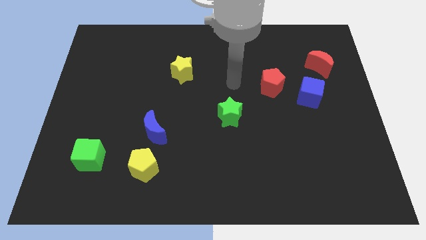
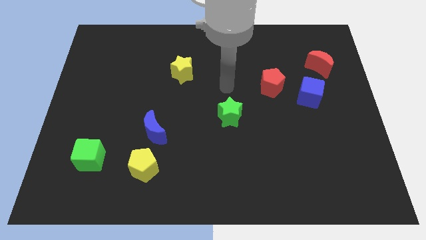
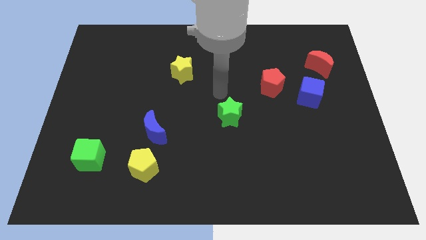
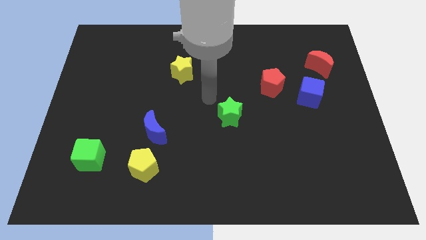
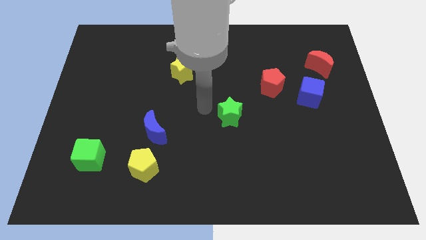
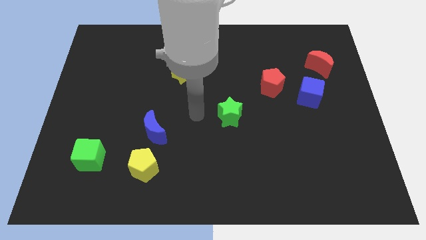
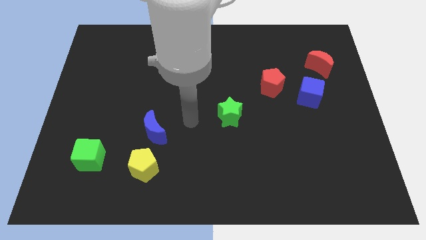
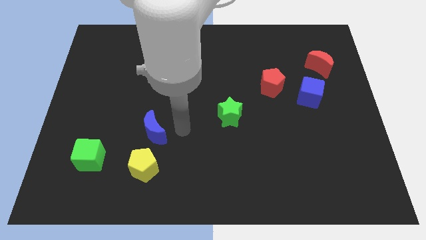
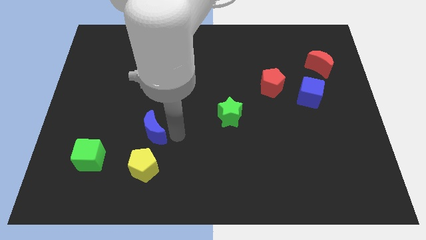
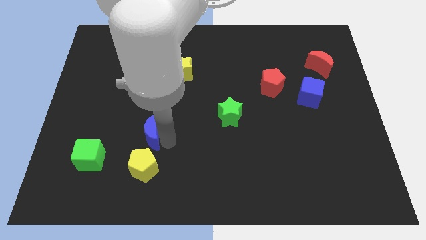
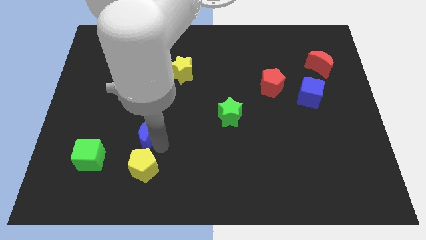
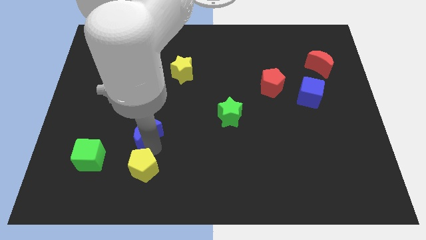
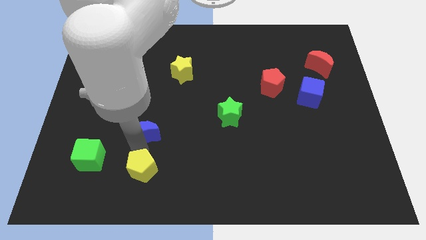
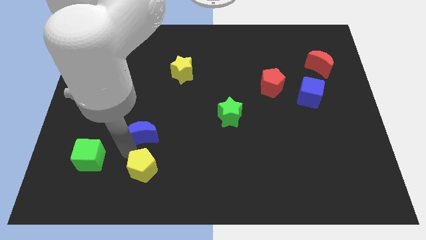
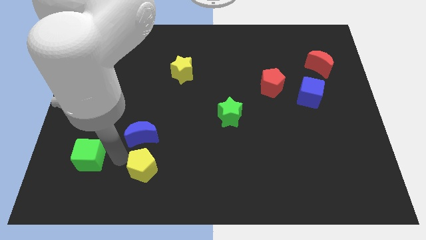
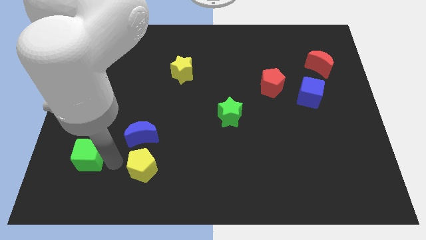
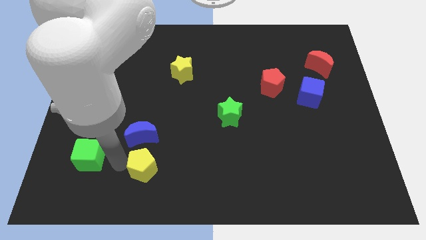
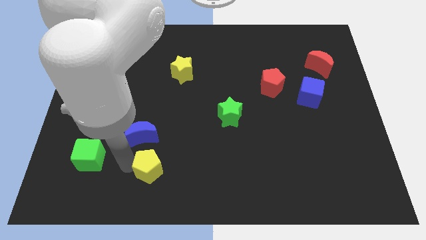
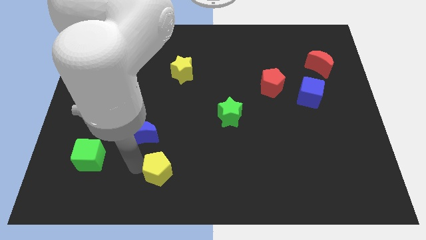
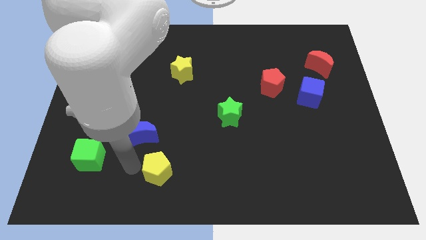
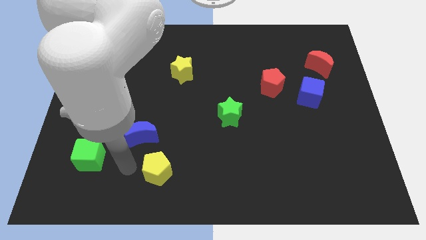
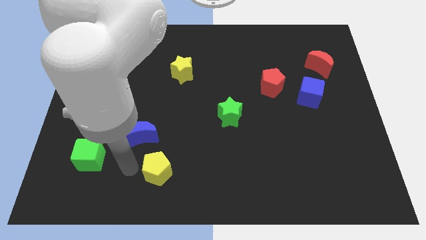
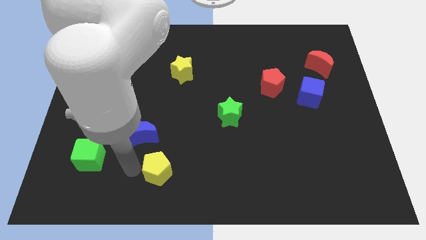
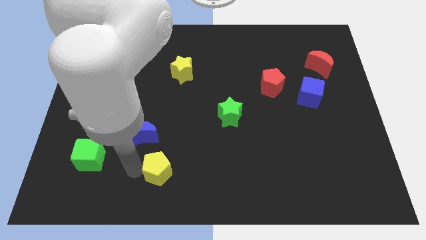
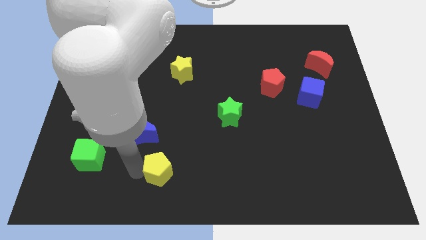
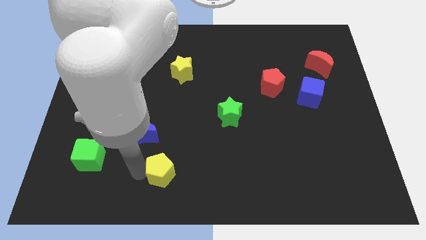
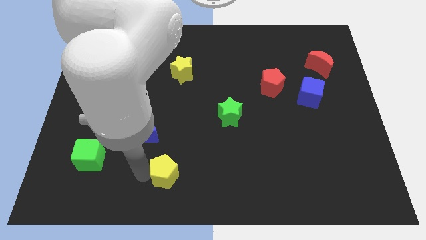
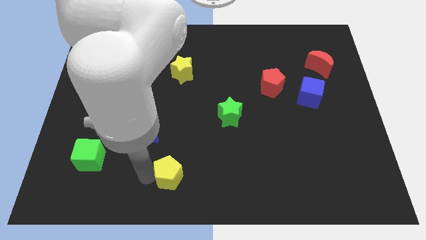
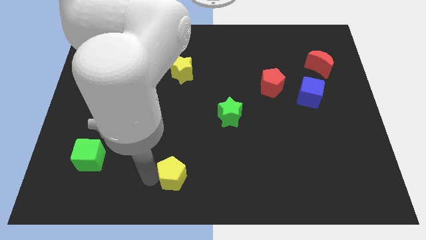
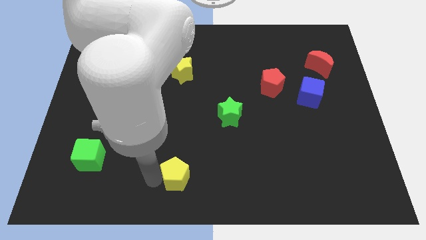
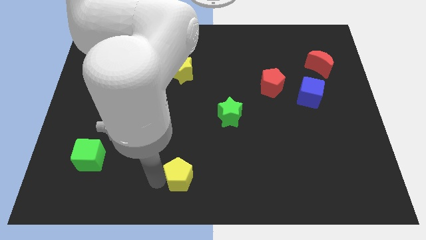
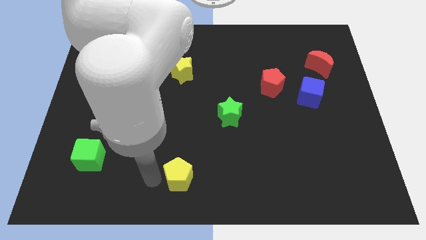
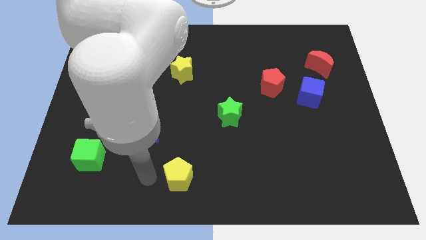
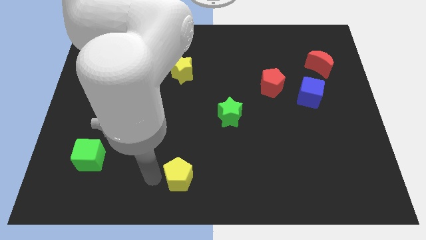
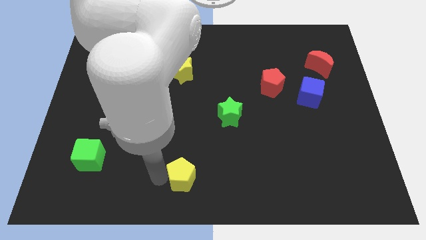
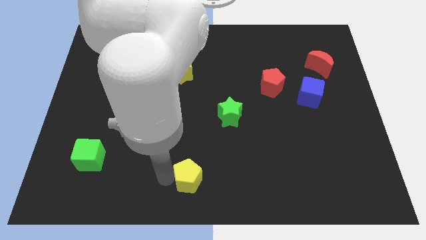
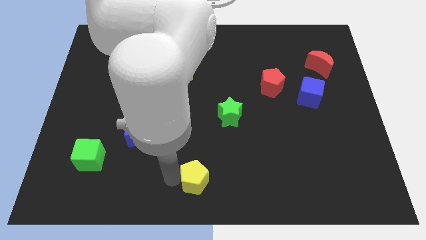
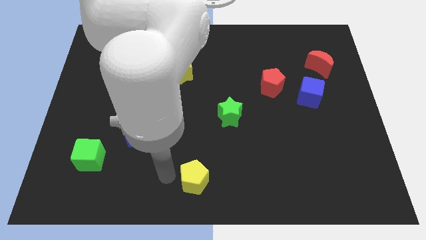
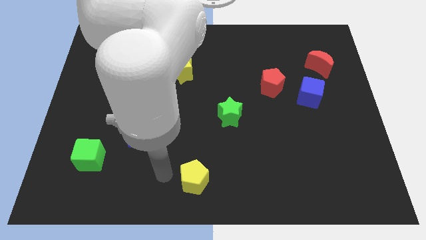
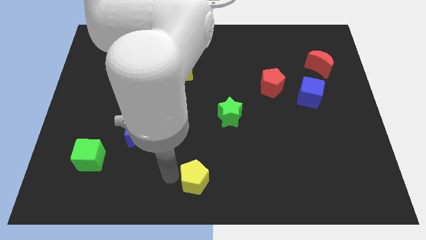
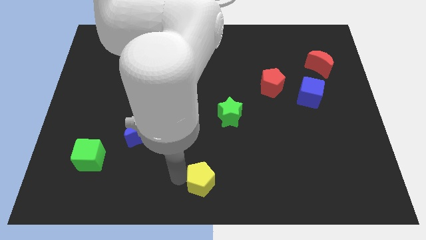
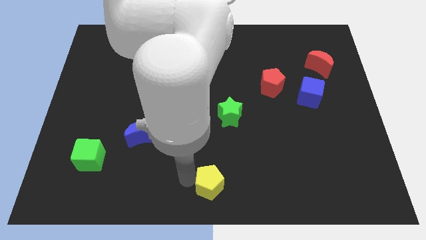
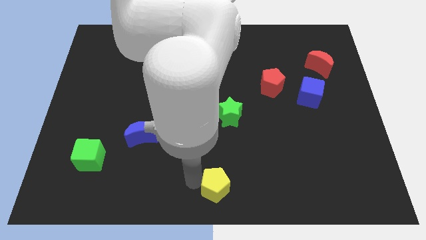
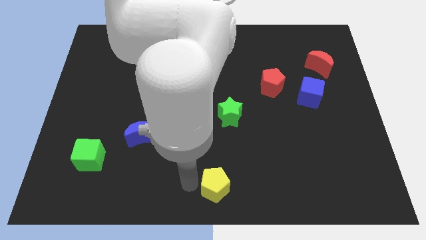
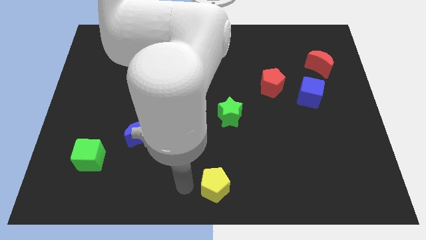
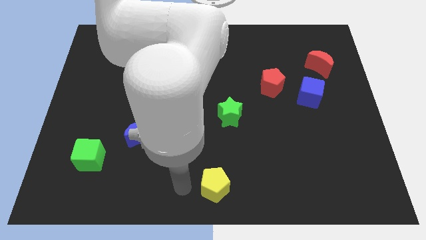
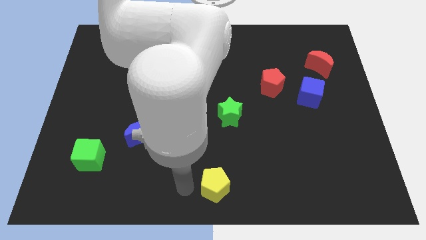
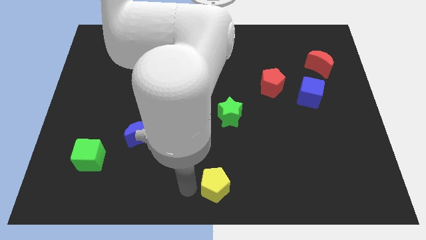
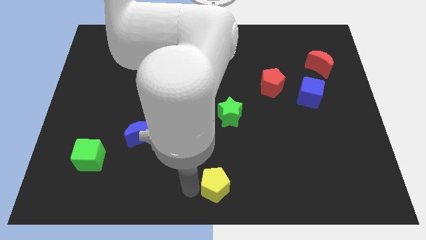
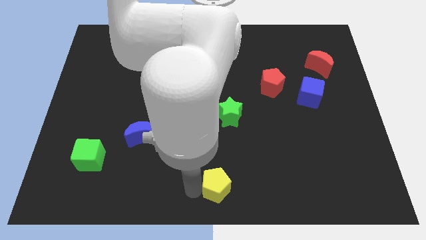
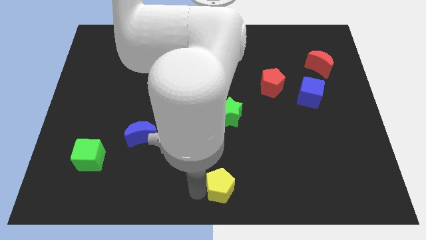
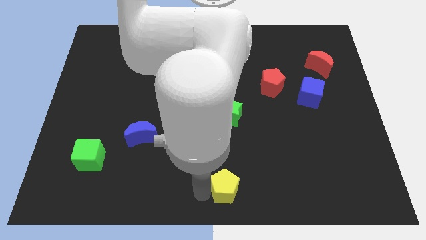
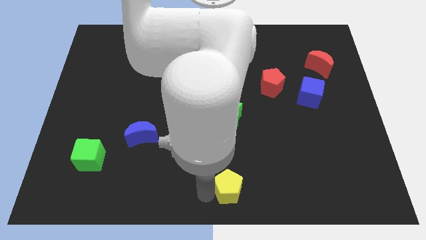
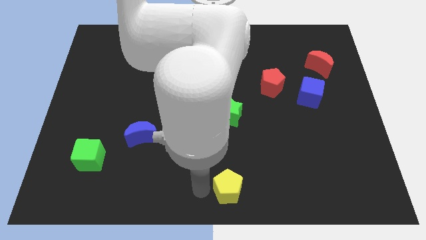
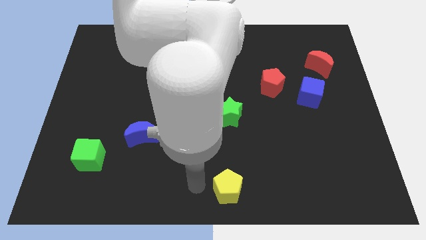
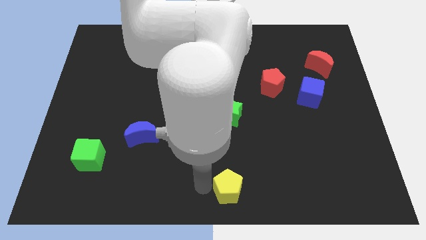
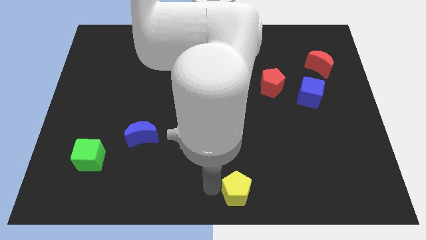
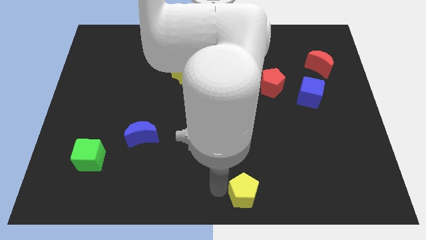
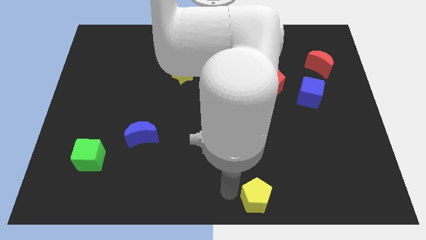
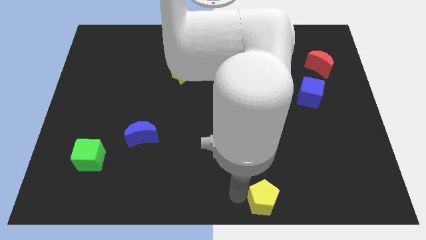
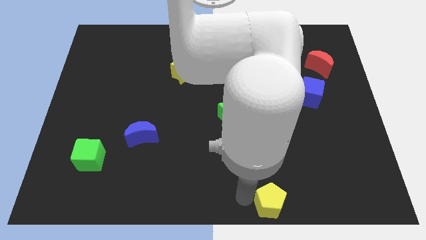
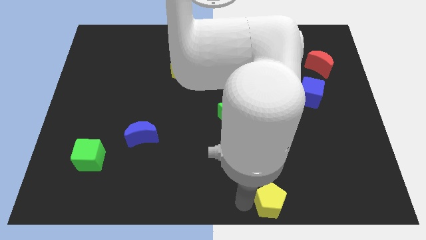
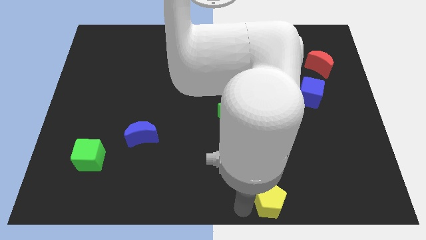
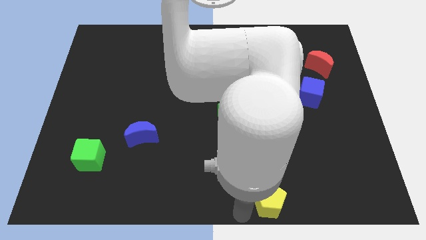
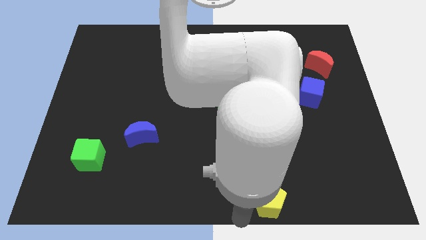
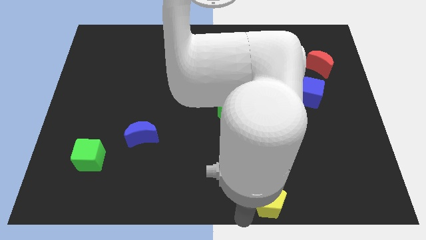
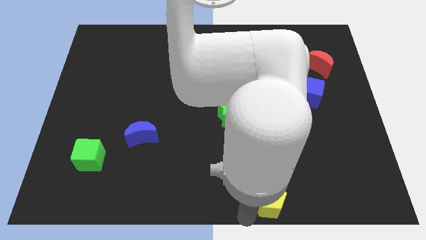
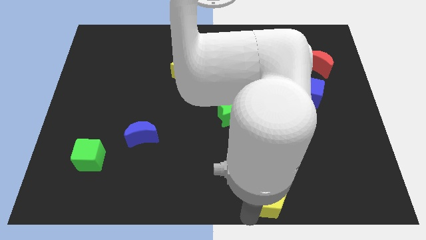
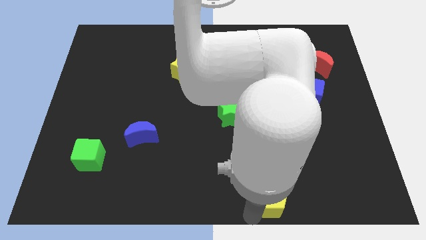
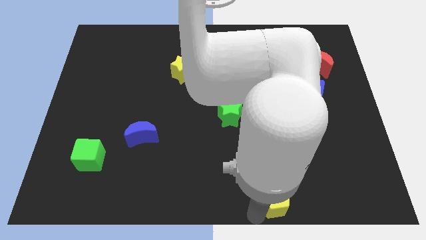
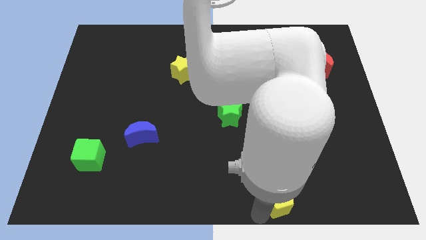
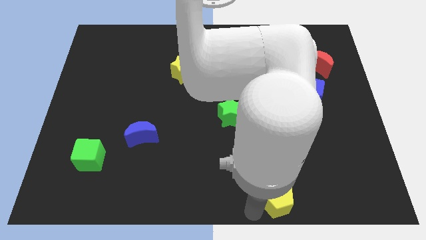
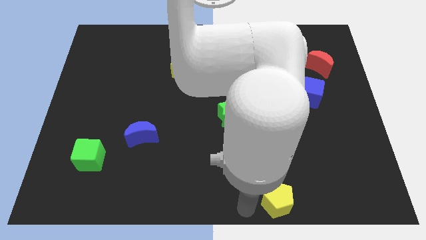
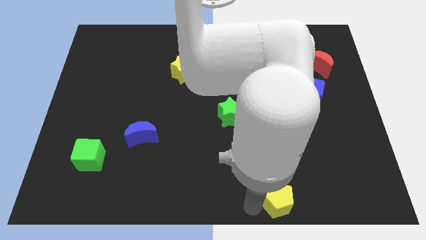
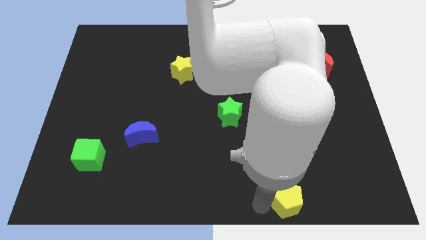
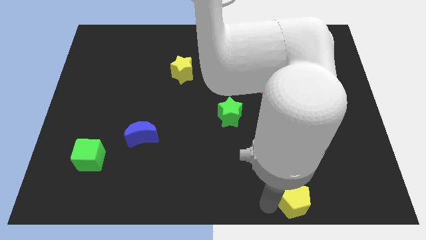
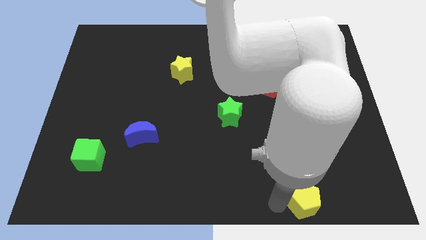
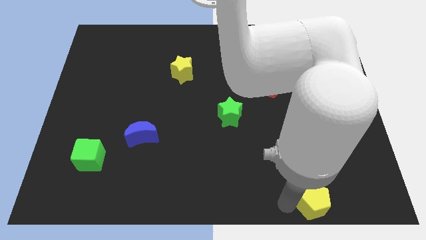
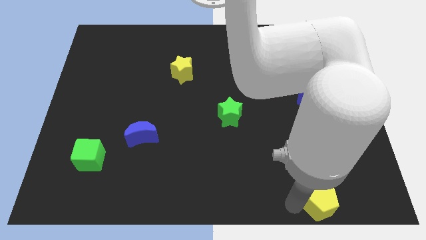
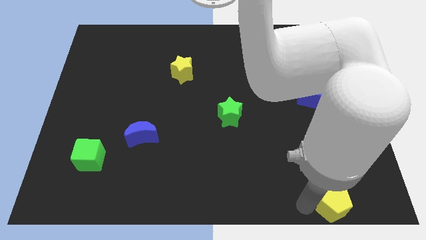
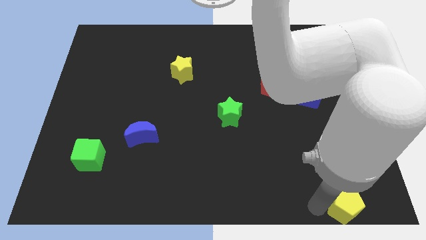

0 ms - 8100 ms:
slide the yellow pentagon to the bottom right of the board
